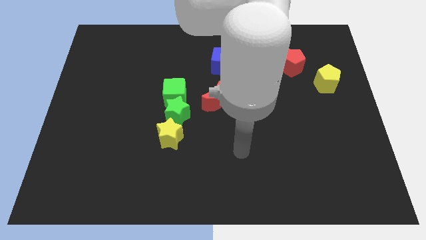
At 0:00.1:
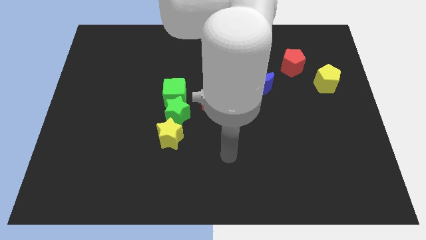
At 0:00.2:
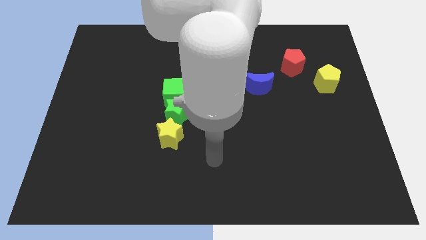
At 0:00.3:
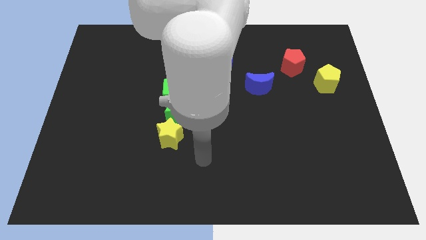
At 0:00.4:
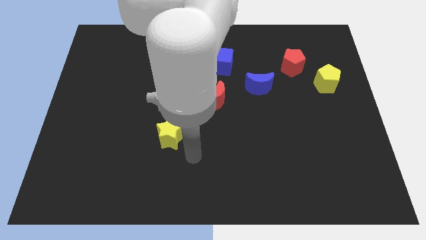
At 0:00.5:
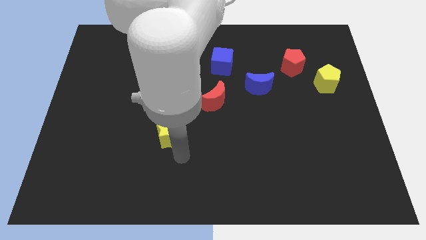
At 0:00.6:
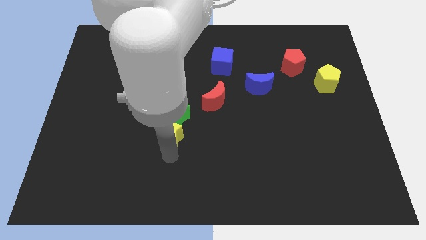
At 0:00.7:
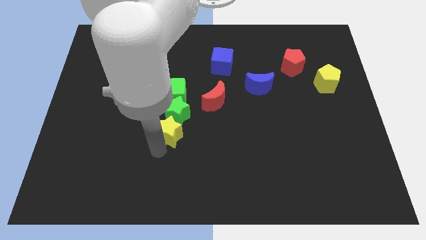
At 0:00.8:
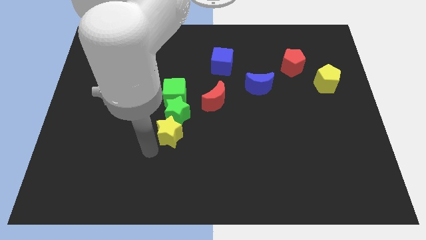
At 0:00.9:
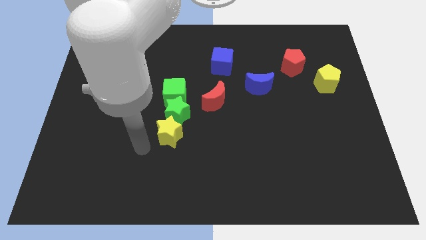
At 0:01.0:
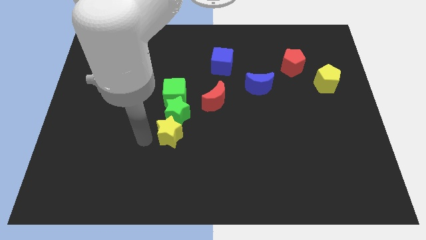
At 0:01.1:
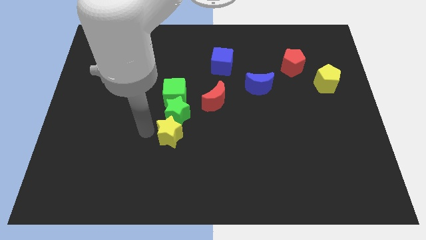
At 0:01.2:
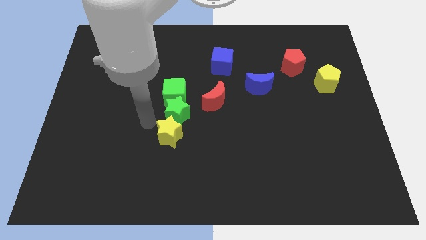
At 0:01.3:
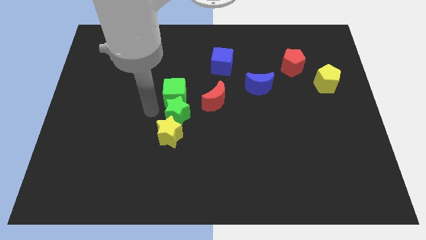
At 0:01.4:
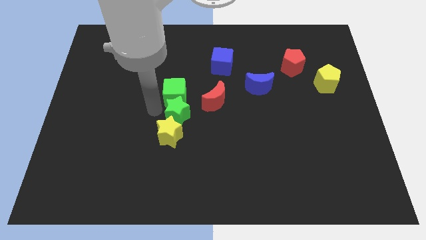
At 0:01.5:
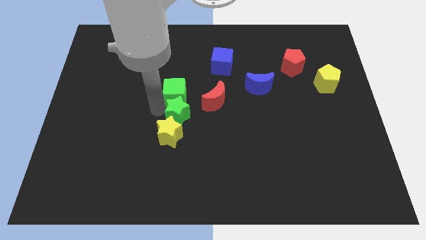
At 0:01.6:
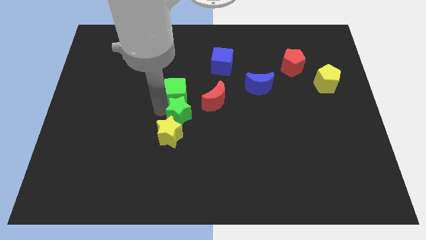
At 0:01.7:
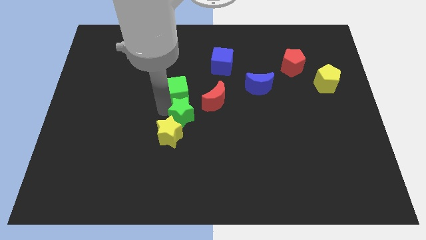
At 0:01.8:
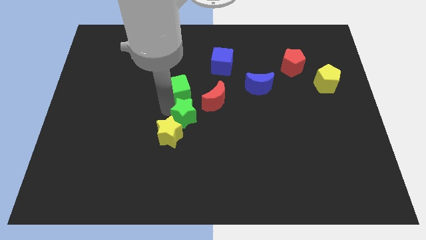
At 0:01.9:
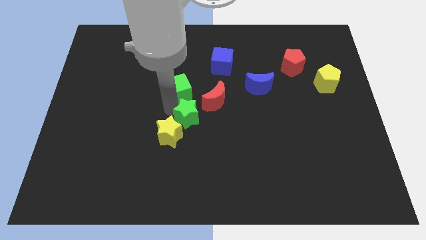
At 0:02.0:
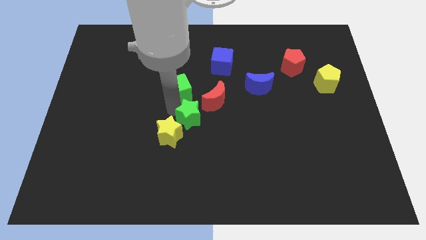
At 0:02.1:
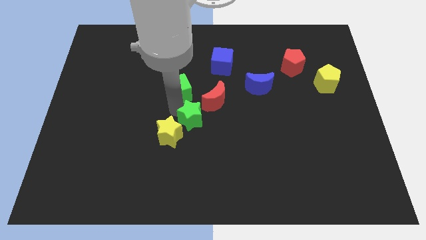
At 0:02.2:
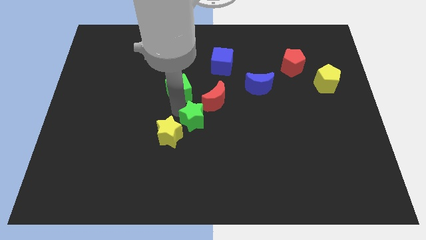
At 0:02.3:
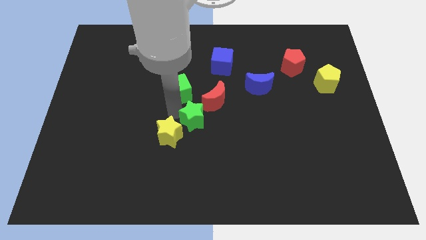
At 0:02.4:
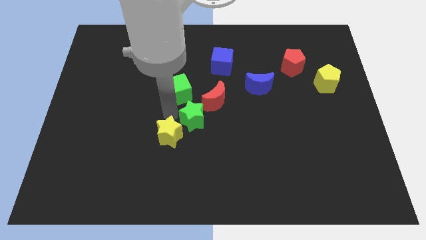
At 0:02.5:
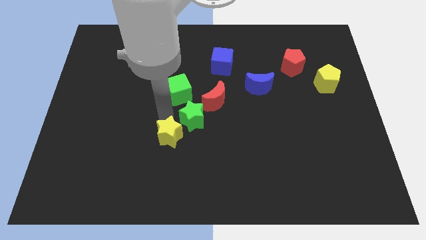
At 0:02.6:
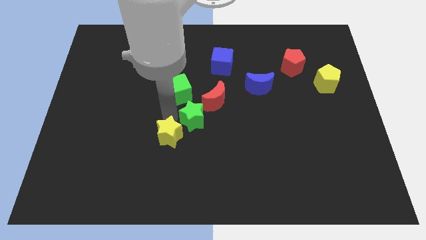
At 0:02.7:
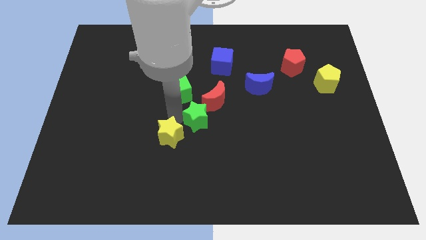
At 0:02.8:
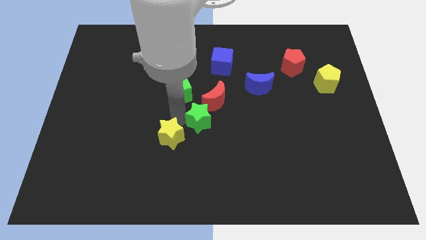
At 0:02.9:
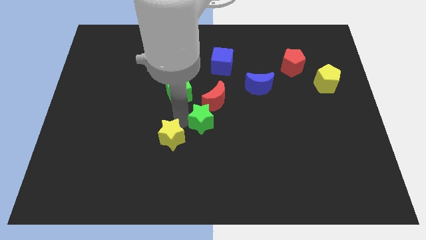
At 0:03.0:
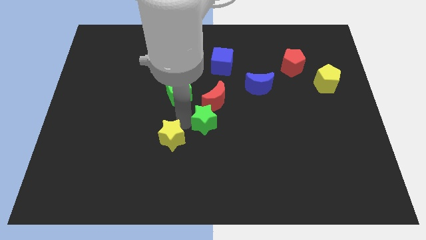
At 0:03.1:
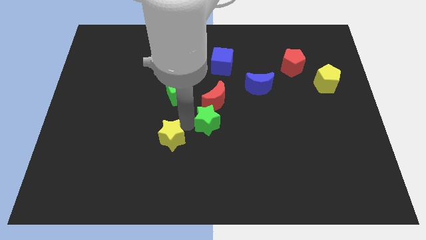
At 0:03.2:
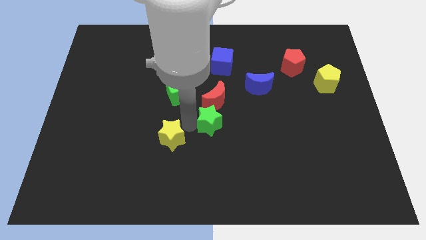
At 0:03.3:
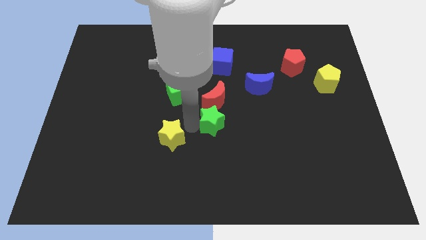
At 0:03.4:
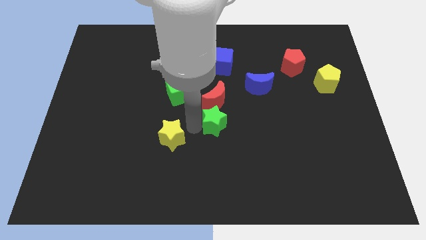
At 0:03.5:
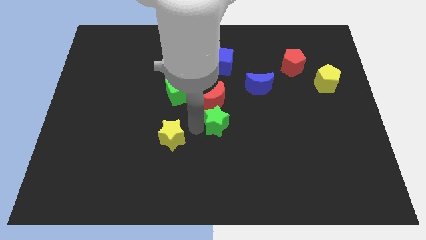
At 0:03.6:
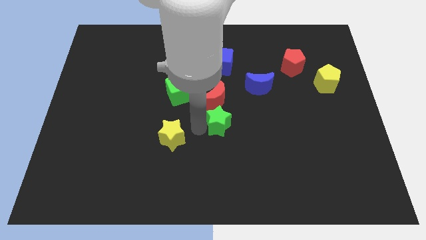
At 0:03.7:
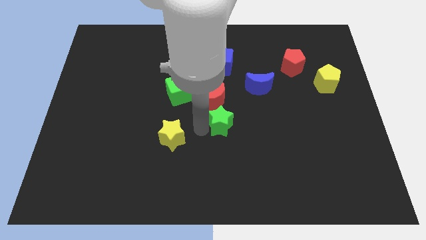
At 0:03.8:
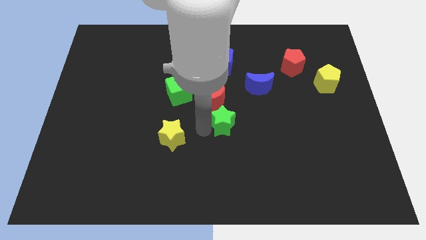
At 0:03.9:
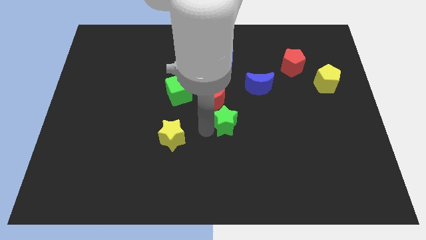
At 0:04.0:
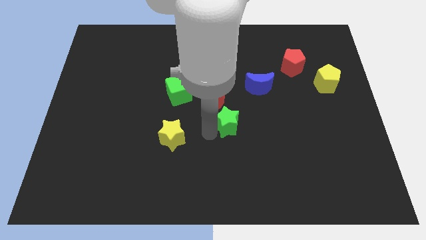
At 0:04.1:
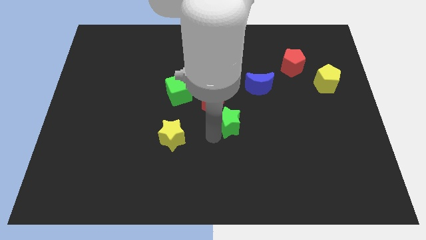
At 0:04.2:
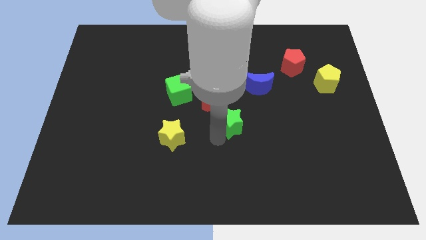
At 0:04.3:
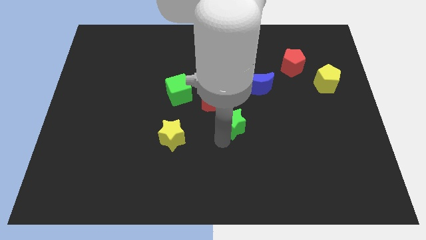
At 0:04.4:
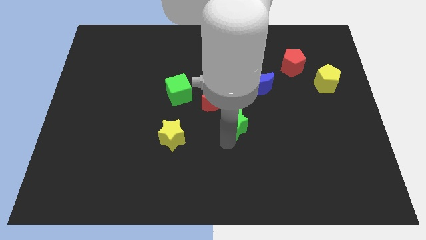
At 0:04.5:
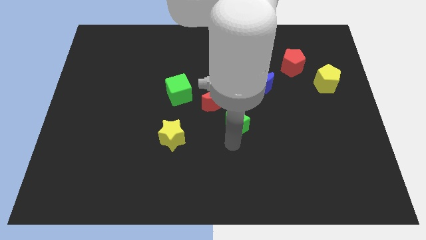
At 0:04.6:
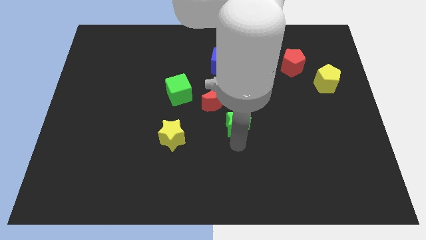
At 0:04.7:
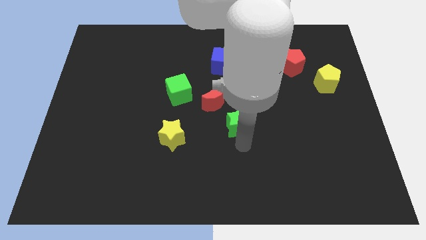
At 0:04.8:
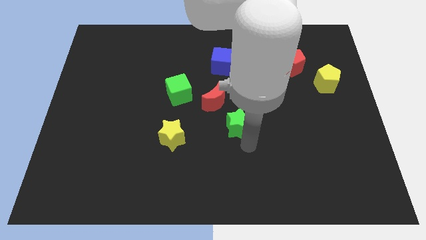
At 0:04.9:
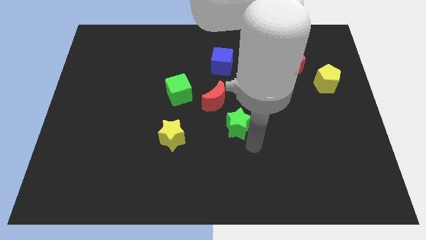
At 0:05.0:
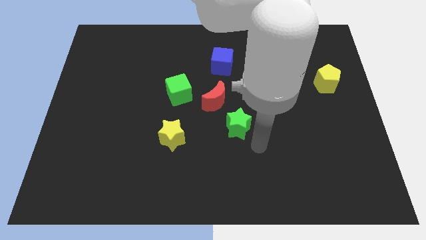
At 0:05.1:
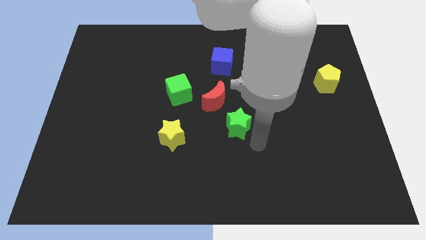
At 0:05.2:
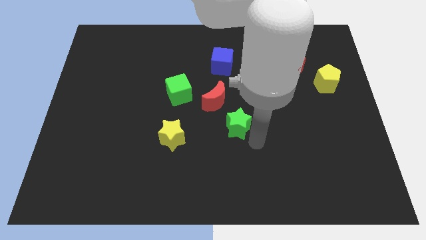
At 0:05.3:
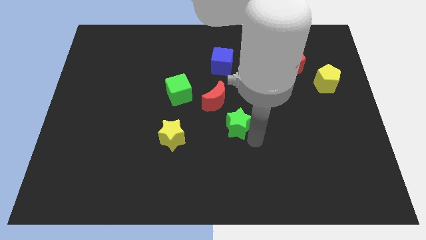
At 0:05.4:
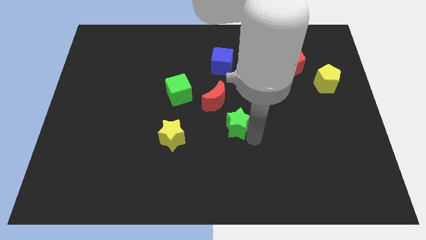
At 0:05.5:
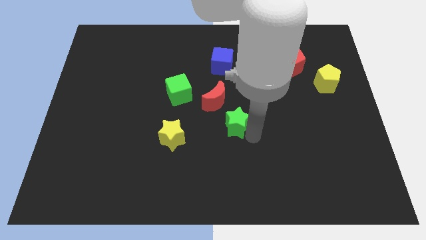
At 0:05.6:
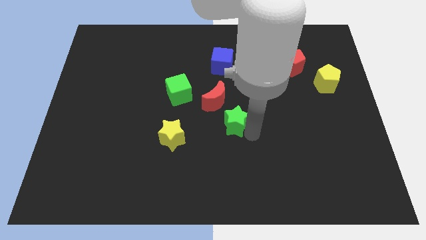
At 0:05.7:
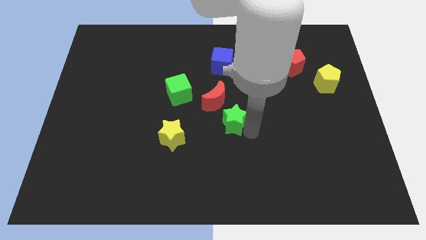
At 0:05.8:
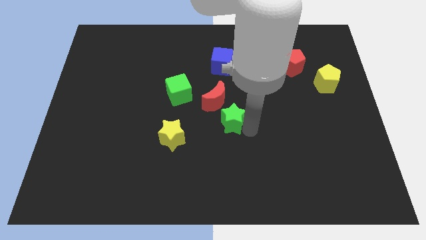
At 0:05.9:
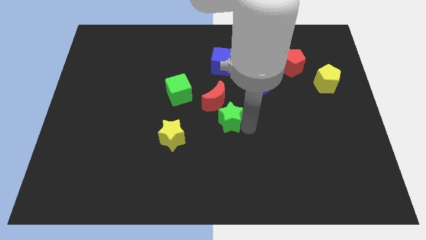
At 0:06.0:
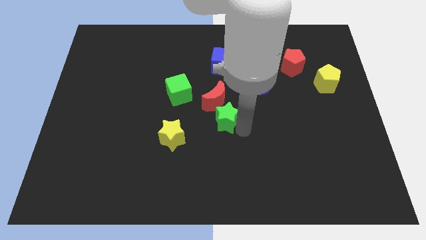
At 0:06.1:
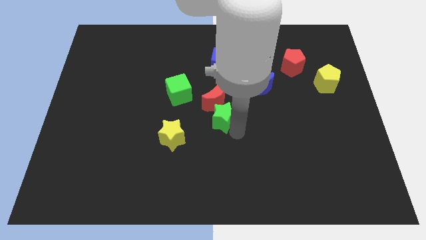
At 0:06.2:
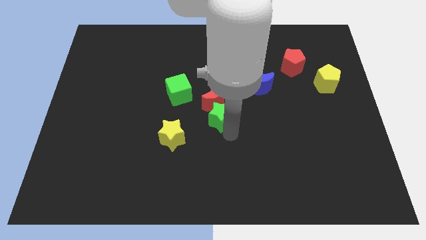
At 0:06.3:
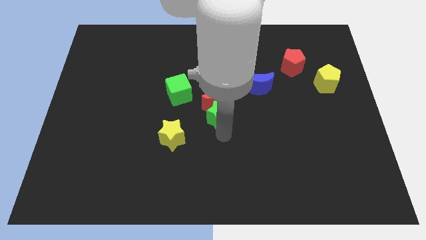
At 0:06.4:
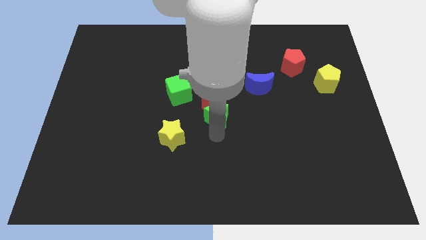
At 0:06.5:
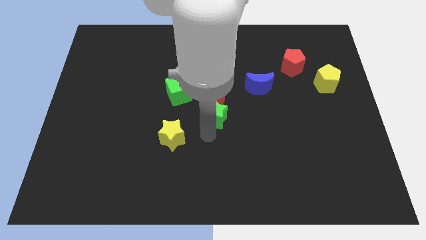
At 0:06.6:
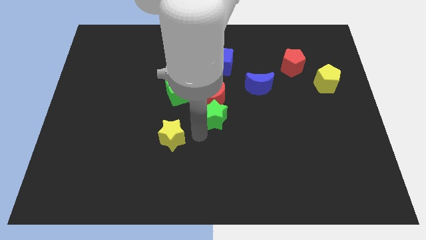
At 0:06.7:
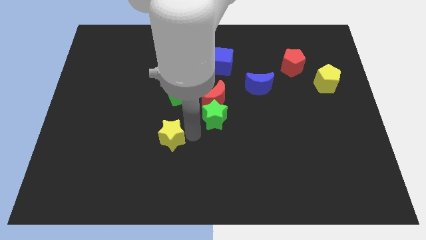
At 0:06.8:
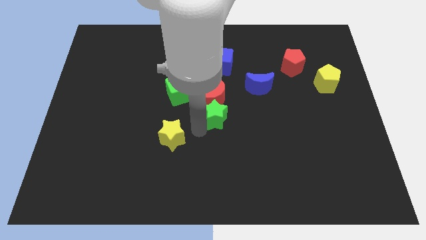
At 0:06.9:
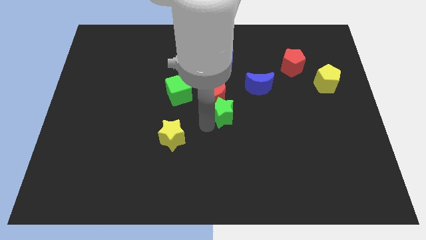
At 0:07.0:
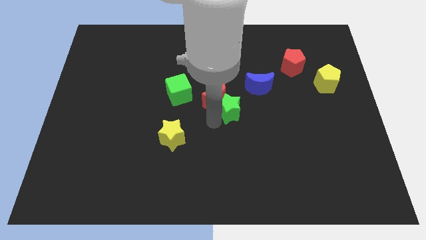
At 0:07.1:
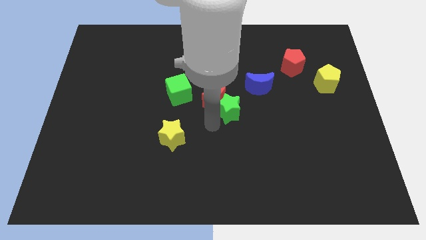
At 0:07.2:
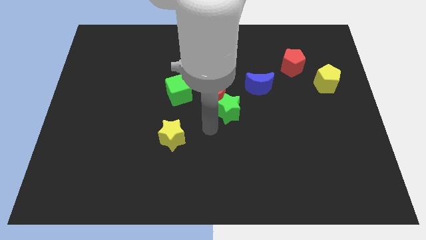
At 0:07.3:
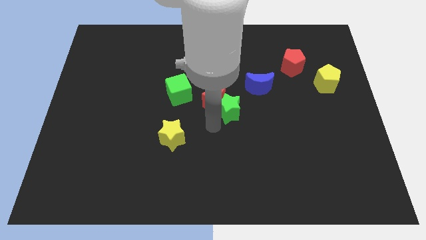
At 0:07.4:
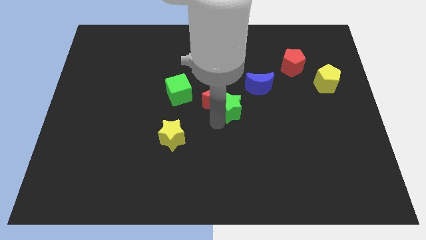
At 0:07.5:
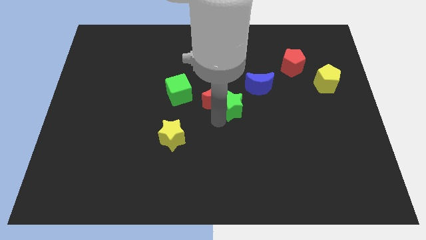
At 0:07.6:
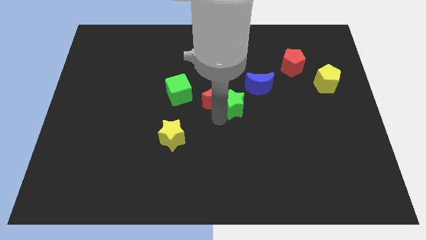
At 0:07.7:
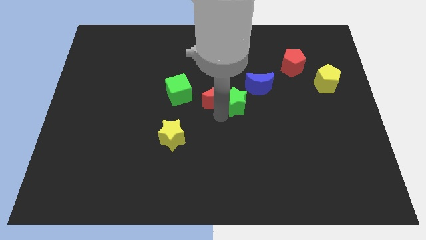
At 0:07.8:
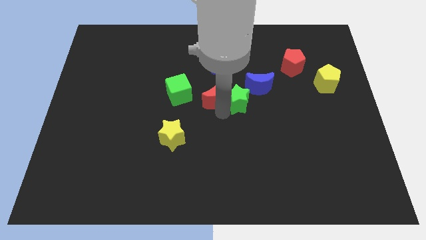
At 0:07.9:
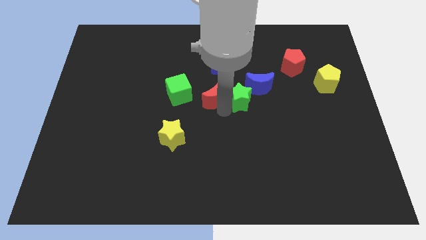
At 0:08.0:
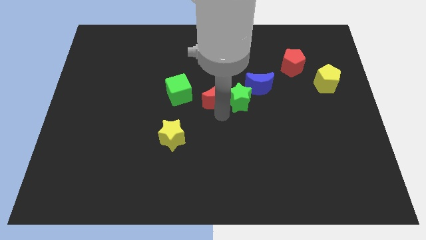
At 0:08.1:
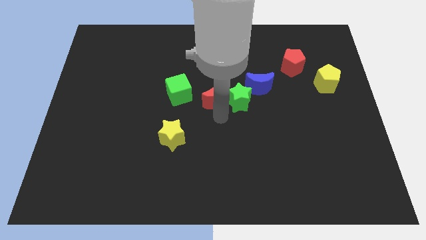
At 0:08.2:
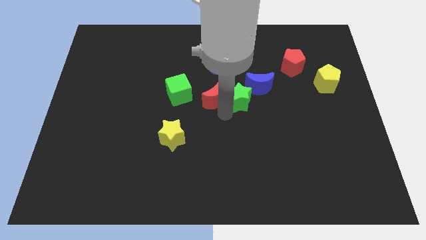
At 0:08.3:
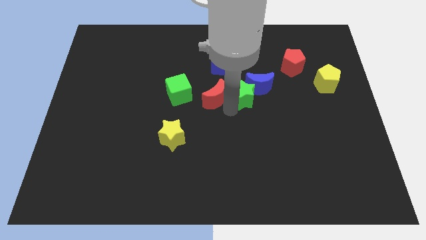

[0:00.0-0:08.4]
push the green star towards the blue moon
